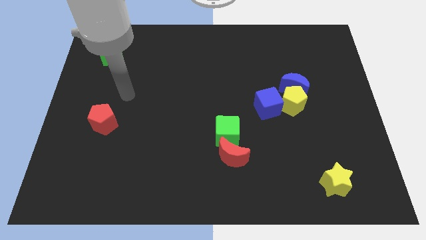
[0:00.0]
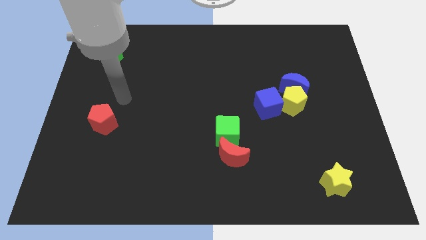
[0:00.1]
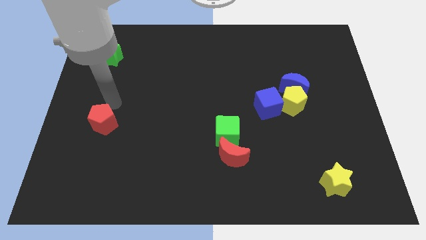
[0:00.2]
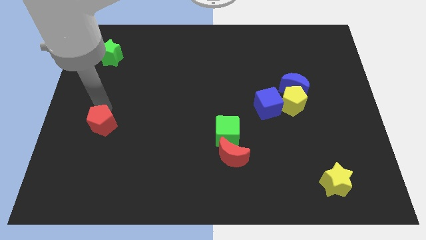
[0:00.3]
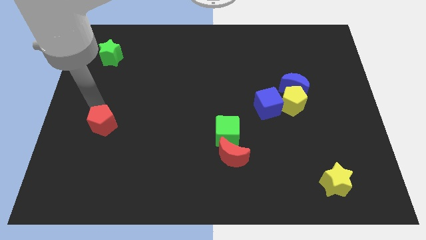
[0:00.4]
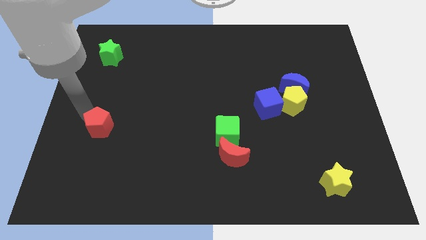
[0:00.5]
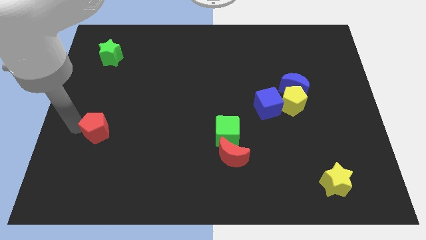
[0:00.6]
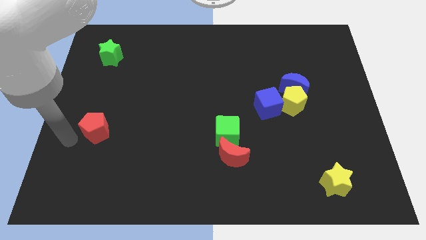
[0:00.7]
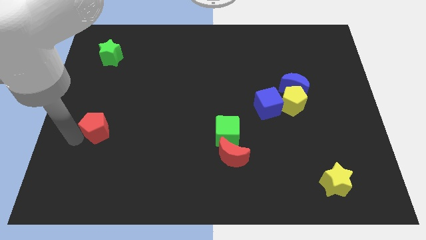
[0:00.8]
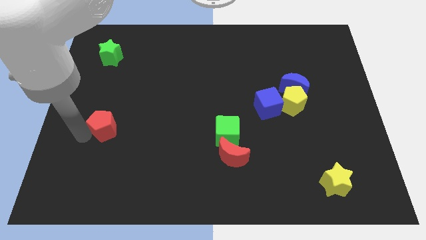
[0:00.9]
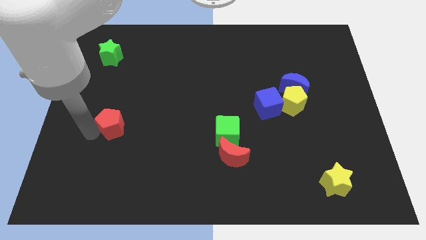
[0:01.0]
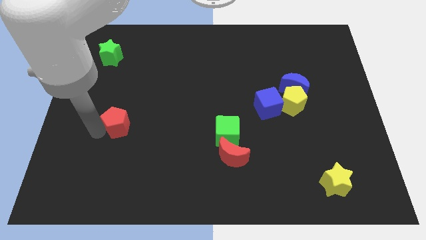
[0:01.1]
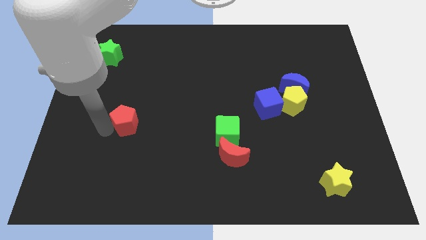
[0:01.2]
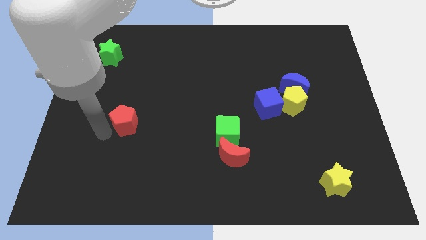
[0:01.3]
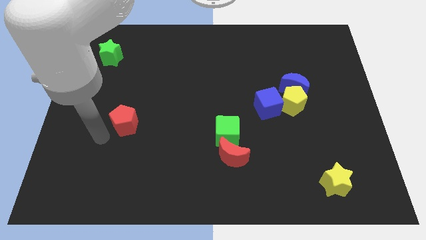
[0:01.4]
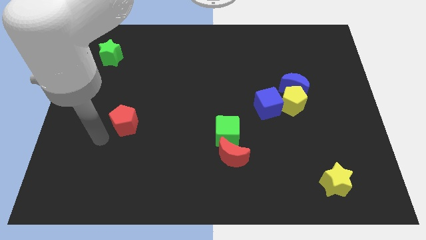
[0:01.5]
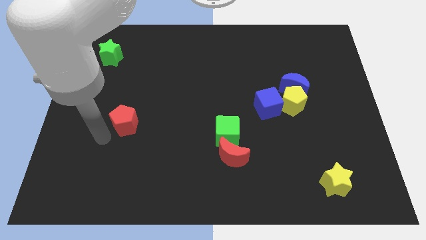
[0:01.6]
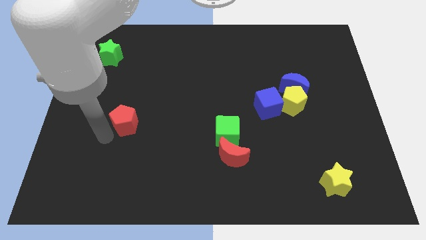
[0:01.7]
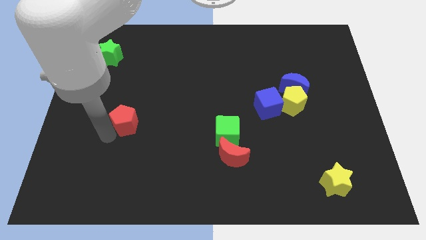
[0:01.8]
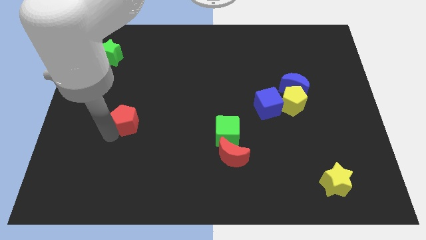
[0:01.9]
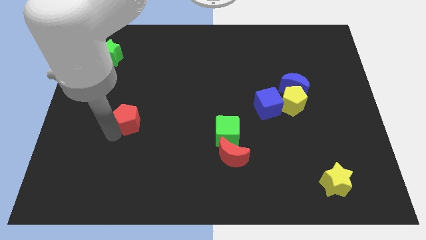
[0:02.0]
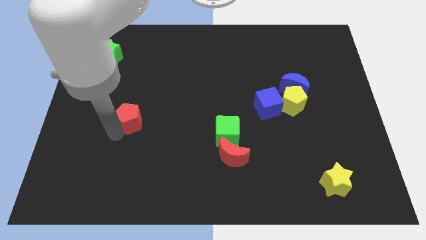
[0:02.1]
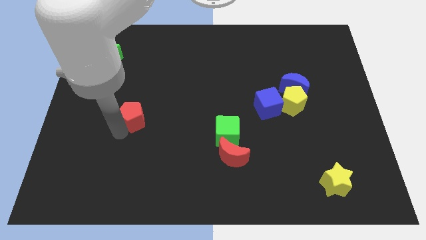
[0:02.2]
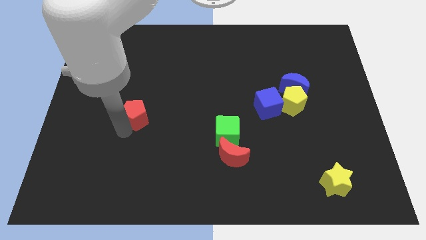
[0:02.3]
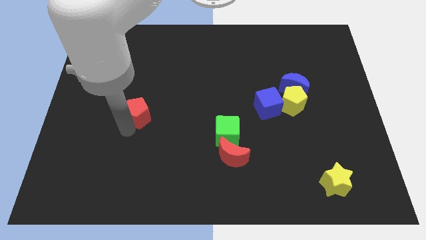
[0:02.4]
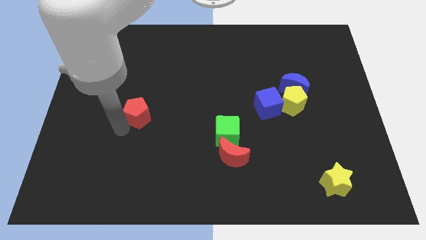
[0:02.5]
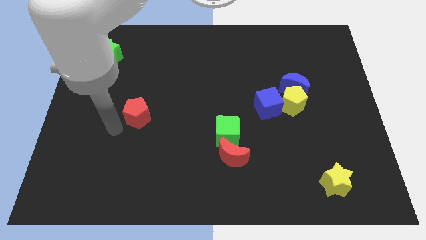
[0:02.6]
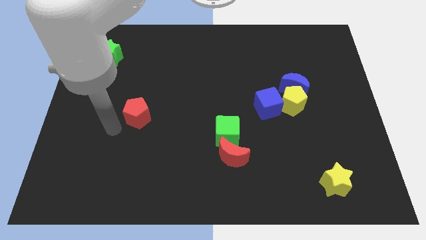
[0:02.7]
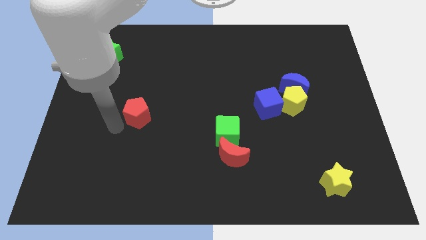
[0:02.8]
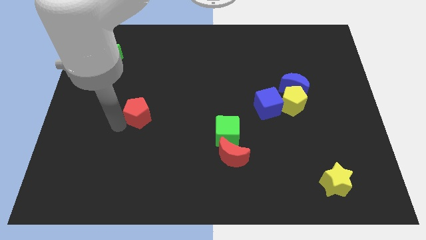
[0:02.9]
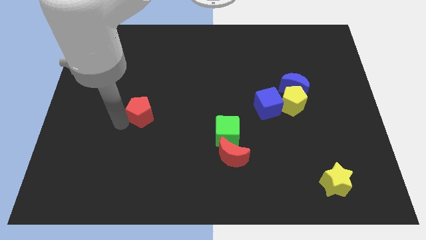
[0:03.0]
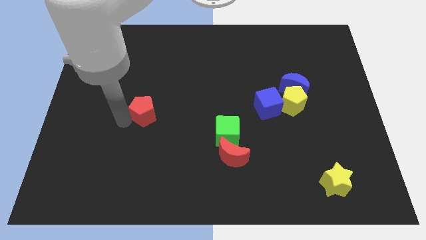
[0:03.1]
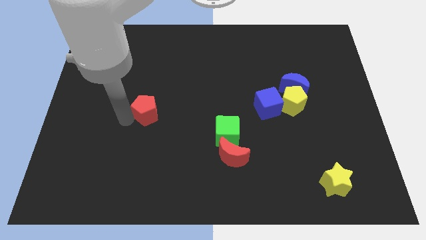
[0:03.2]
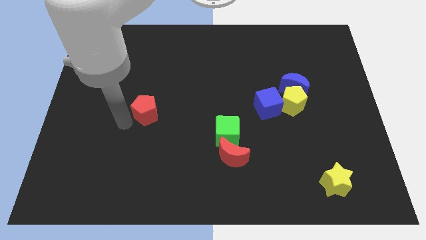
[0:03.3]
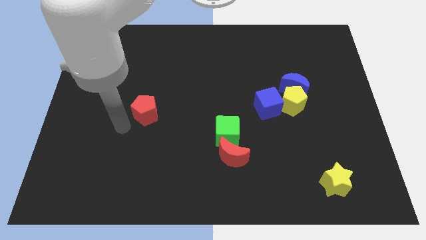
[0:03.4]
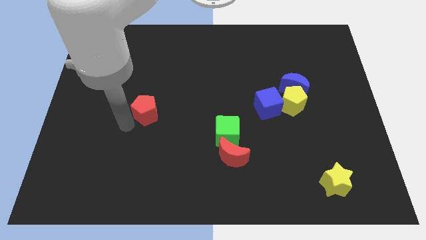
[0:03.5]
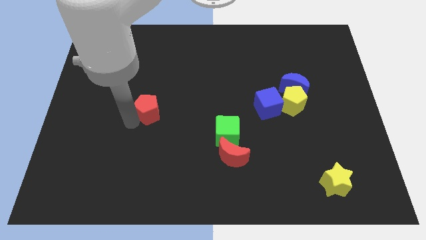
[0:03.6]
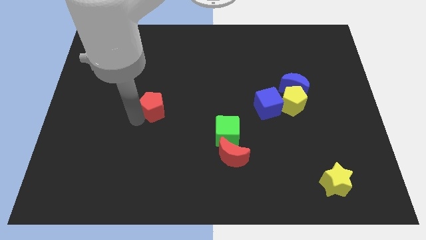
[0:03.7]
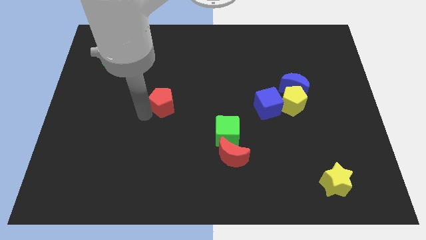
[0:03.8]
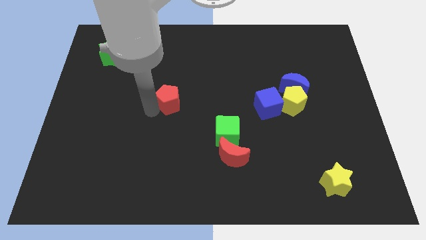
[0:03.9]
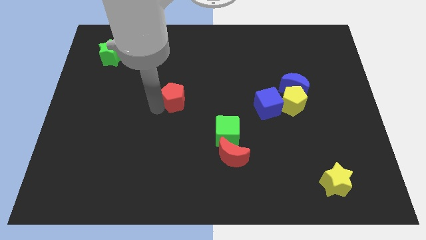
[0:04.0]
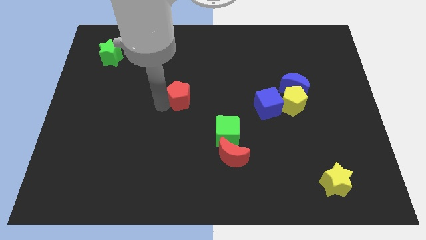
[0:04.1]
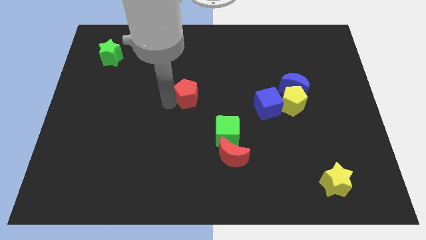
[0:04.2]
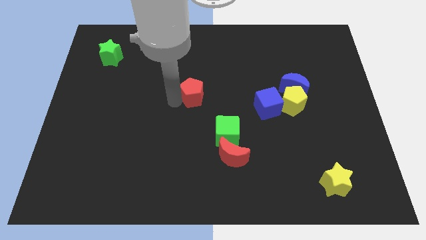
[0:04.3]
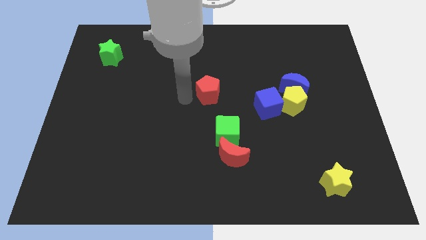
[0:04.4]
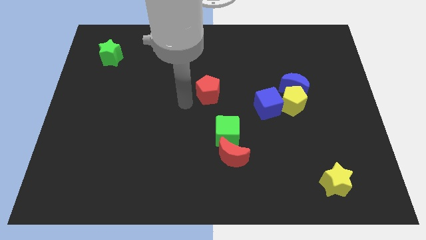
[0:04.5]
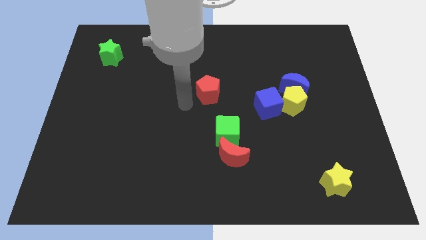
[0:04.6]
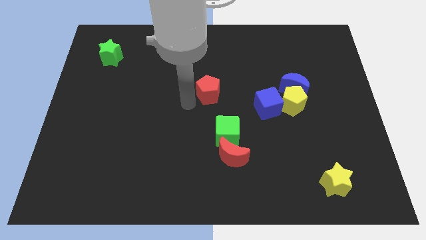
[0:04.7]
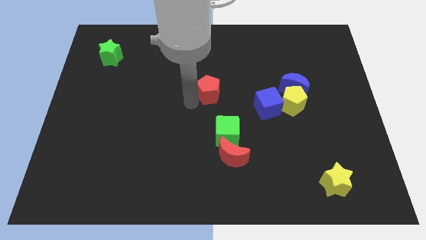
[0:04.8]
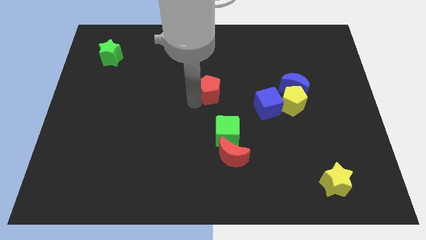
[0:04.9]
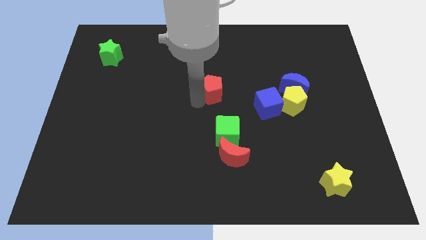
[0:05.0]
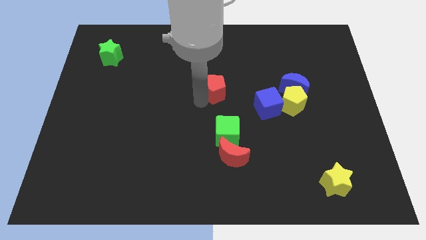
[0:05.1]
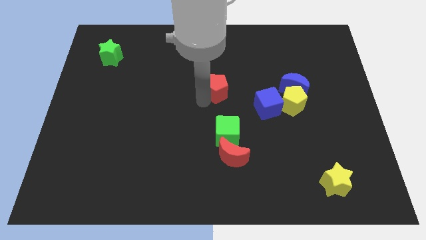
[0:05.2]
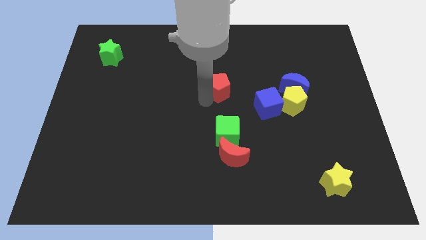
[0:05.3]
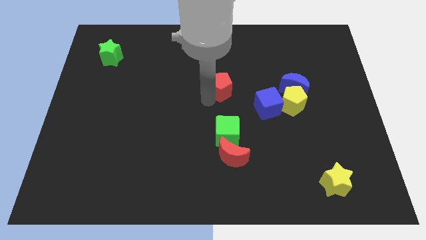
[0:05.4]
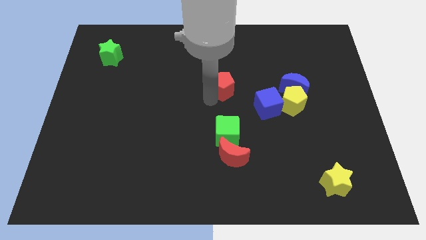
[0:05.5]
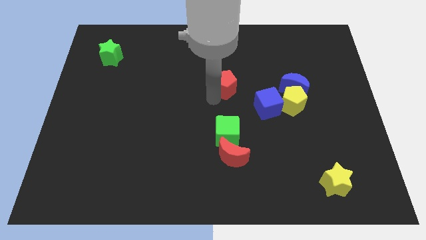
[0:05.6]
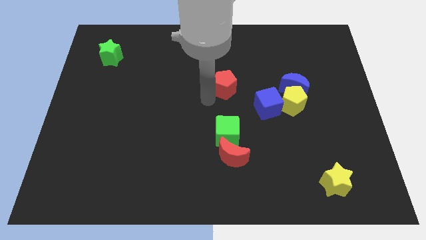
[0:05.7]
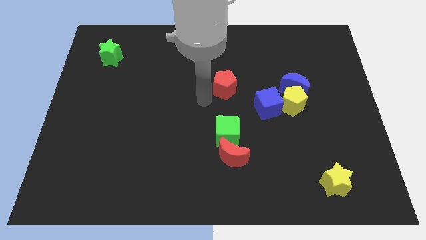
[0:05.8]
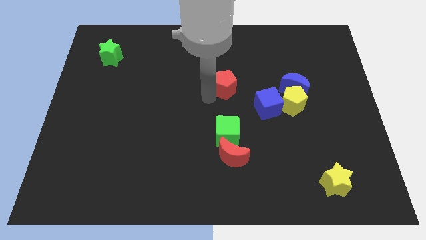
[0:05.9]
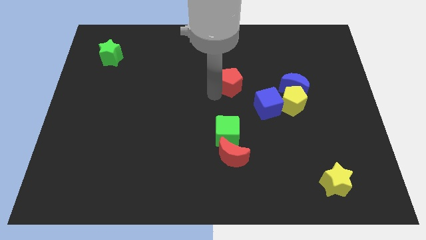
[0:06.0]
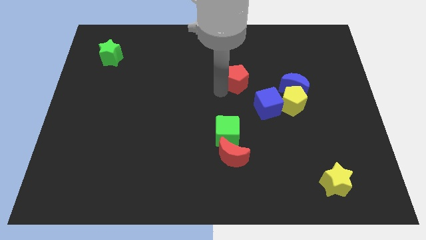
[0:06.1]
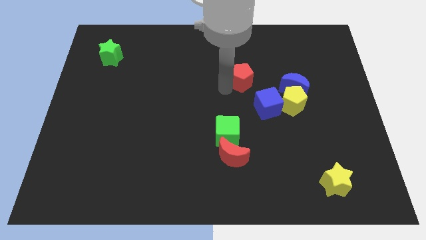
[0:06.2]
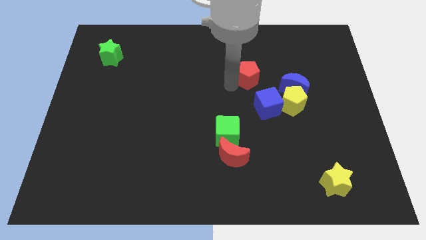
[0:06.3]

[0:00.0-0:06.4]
push the red pentagon to the top of the blue cube

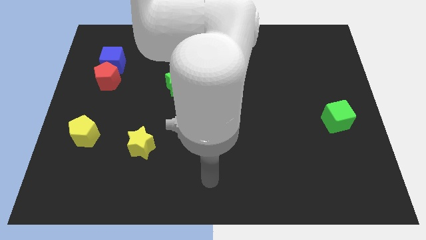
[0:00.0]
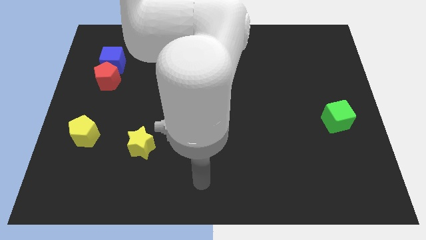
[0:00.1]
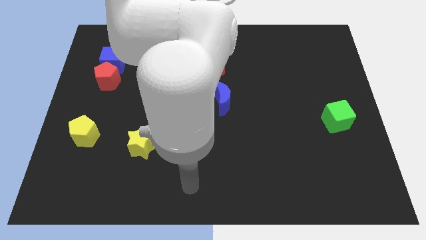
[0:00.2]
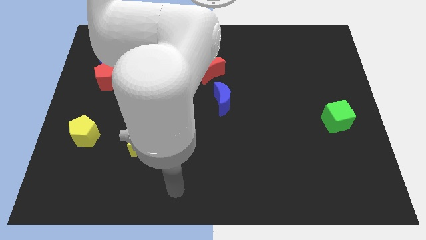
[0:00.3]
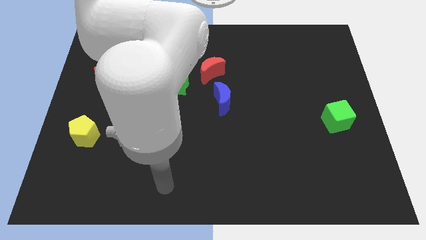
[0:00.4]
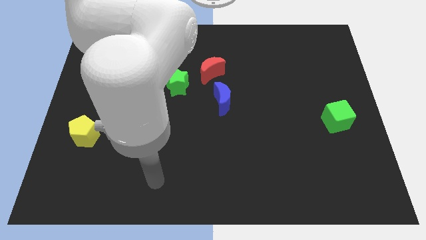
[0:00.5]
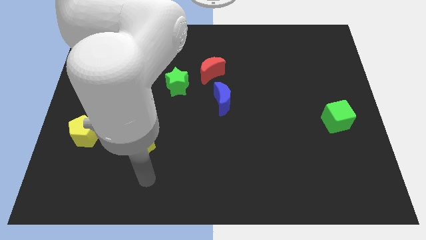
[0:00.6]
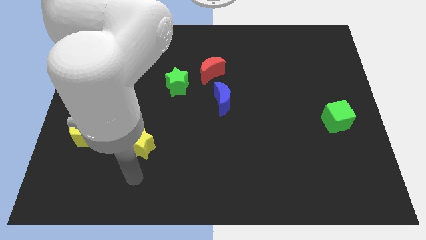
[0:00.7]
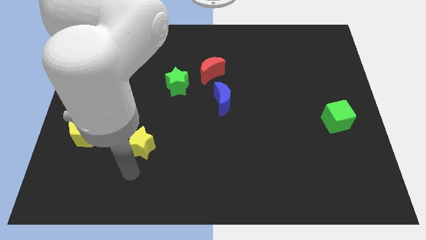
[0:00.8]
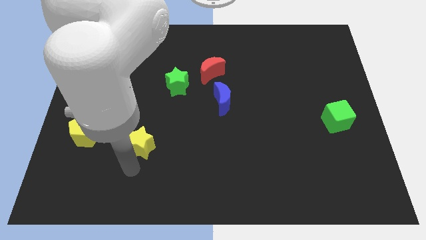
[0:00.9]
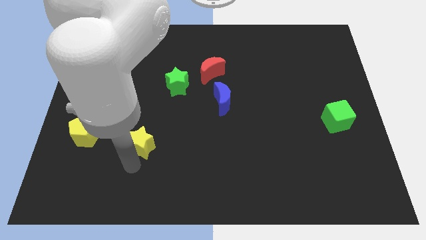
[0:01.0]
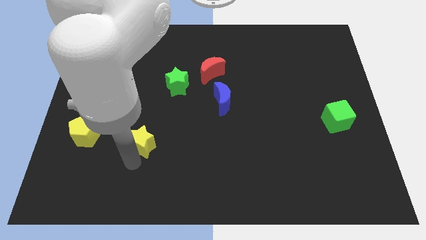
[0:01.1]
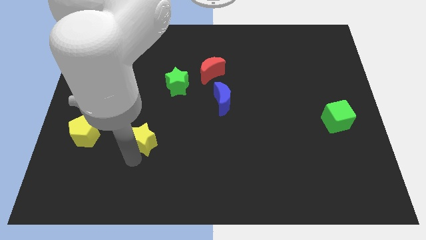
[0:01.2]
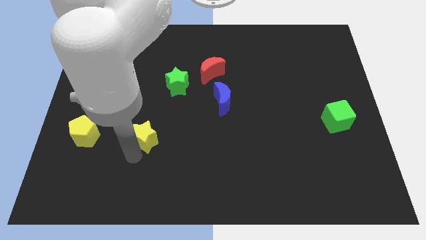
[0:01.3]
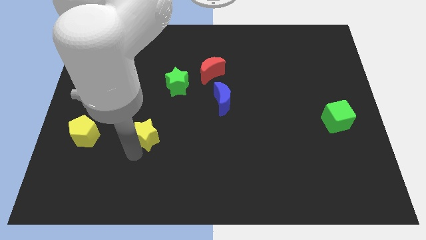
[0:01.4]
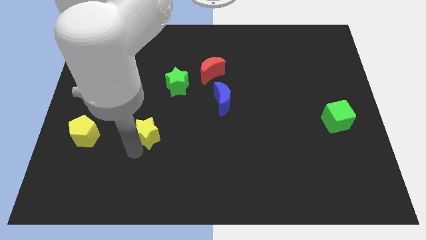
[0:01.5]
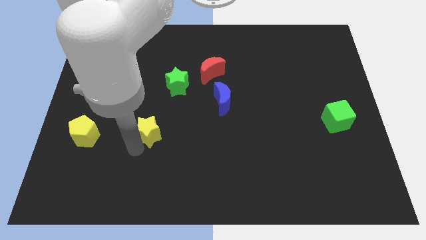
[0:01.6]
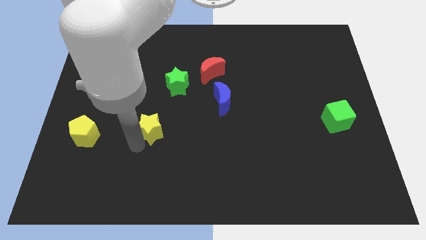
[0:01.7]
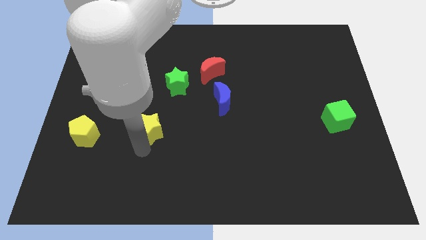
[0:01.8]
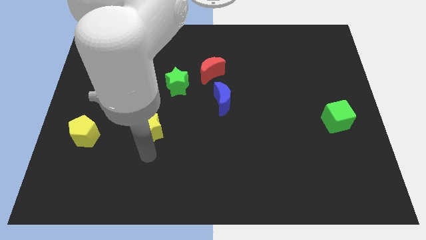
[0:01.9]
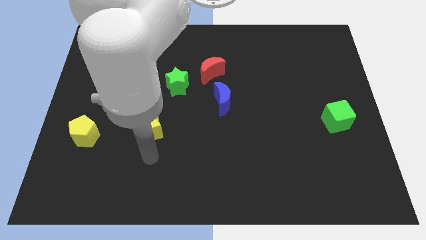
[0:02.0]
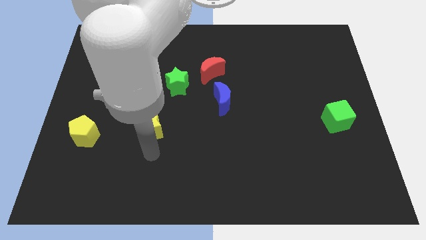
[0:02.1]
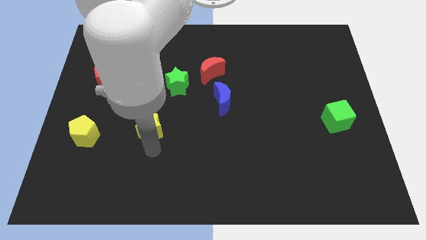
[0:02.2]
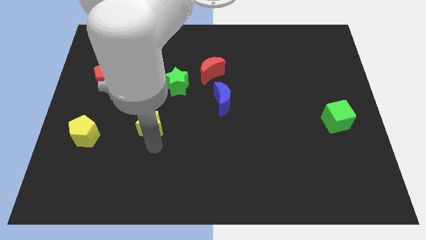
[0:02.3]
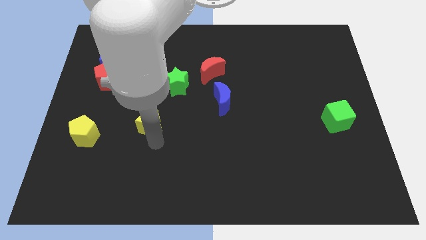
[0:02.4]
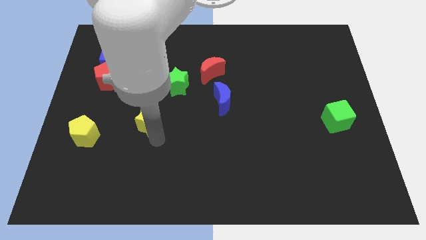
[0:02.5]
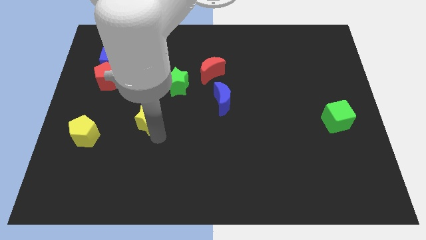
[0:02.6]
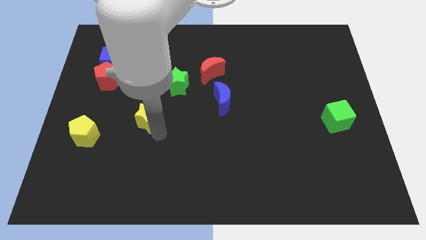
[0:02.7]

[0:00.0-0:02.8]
move the yellow star diagonally down and to the left of the green star
